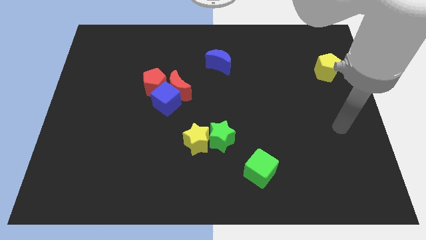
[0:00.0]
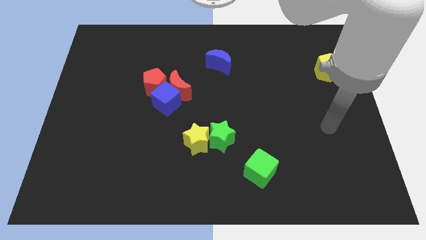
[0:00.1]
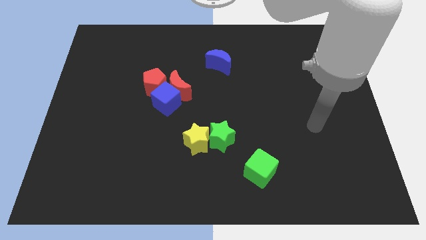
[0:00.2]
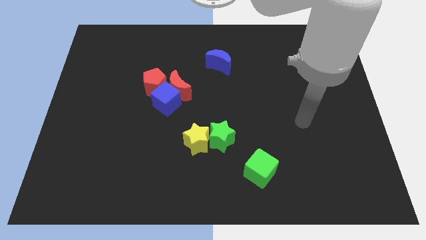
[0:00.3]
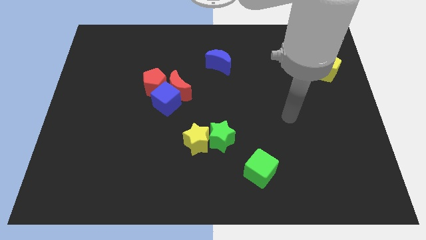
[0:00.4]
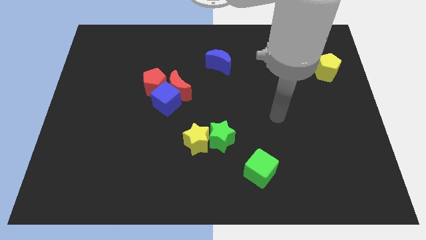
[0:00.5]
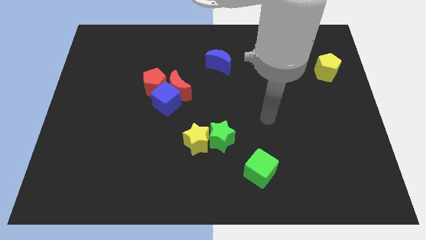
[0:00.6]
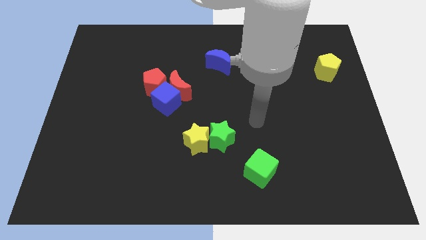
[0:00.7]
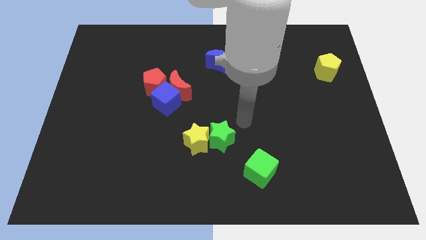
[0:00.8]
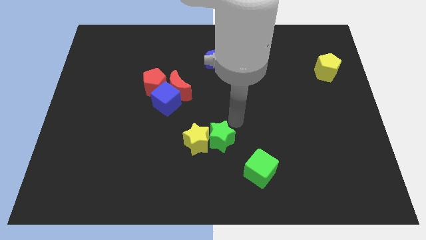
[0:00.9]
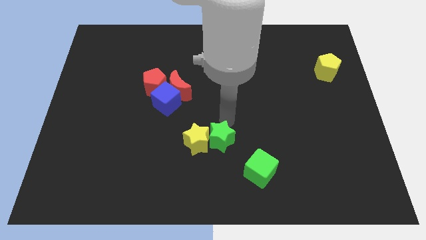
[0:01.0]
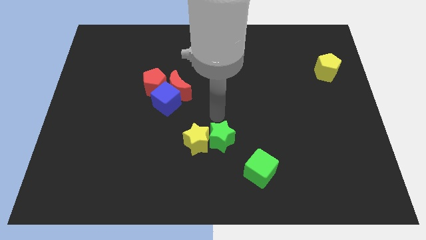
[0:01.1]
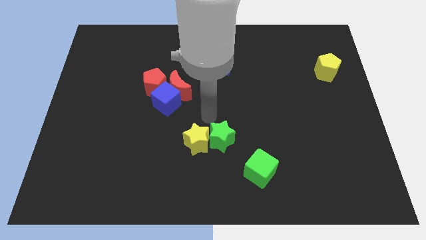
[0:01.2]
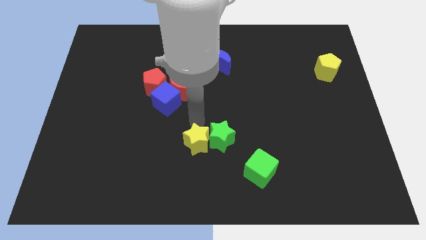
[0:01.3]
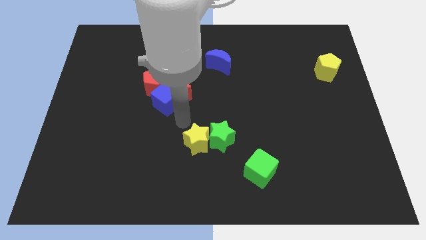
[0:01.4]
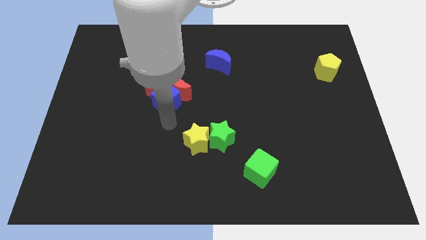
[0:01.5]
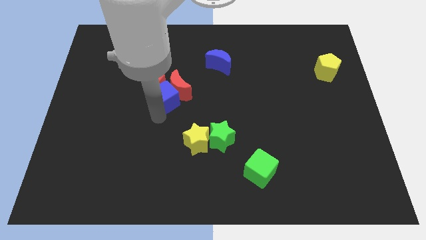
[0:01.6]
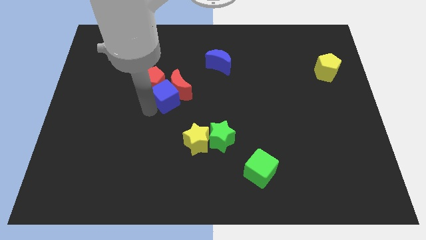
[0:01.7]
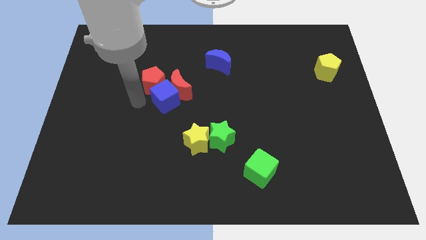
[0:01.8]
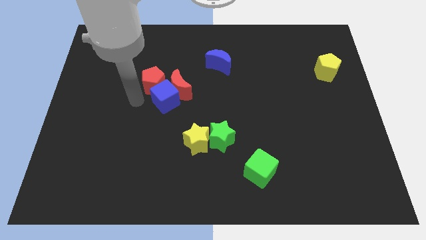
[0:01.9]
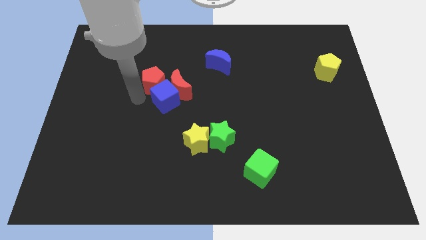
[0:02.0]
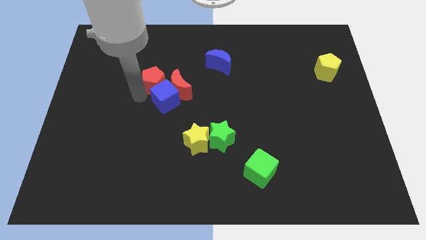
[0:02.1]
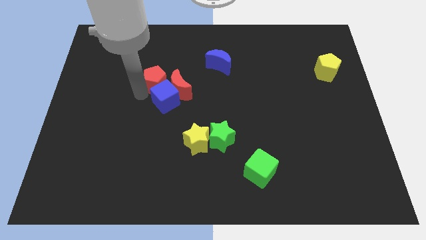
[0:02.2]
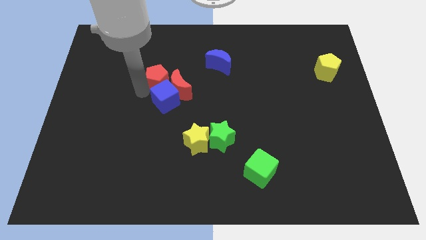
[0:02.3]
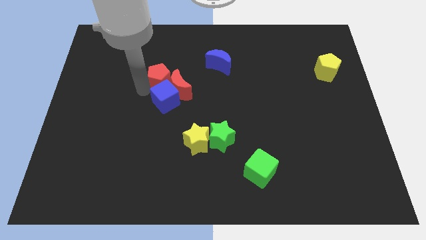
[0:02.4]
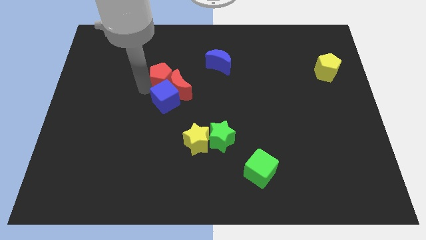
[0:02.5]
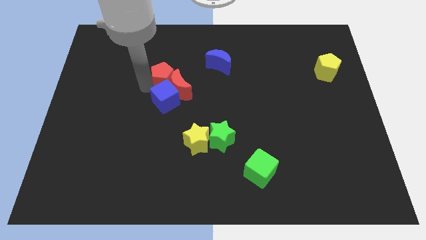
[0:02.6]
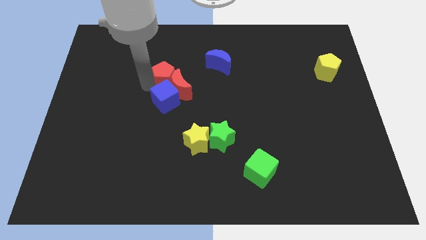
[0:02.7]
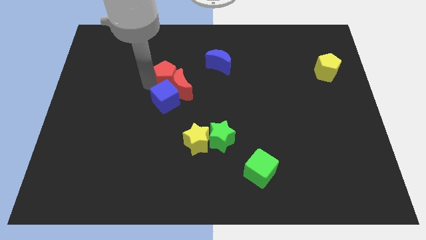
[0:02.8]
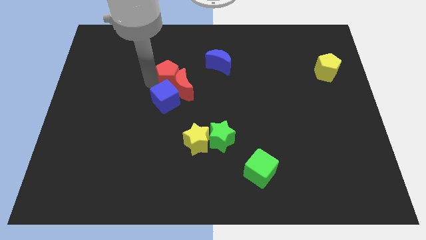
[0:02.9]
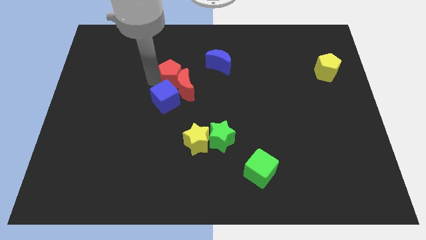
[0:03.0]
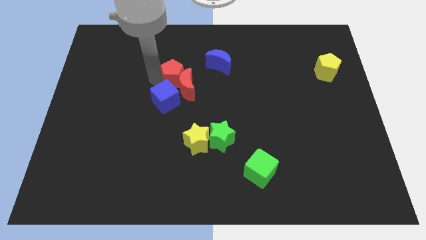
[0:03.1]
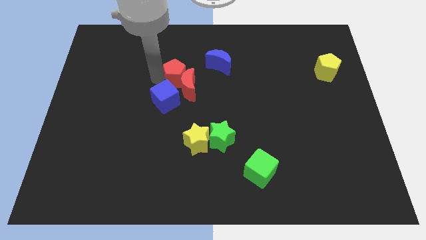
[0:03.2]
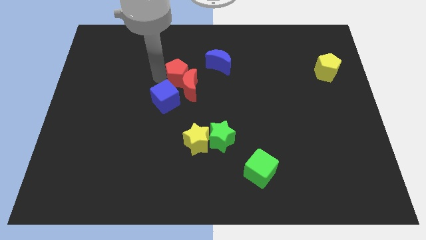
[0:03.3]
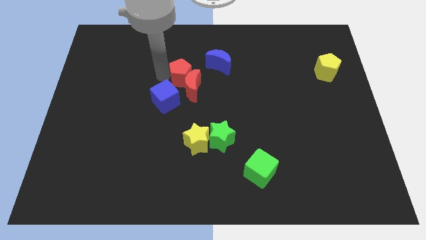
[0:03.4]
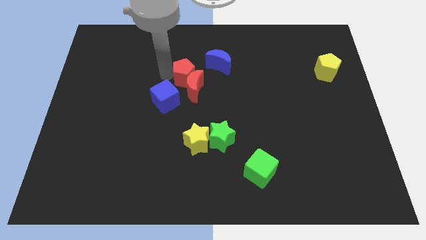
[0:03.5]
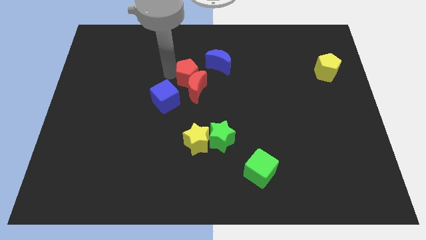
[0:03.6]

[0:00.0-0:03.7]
push the red pentagon slightly to the right

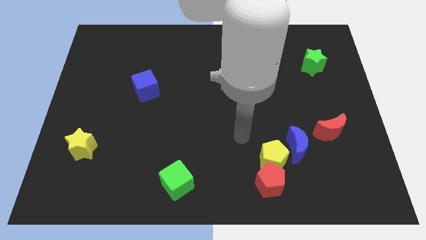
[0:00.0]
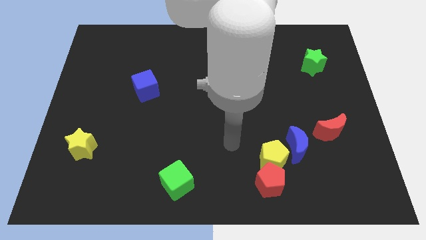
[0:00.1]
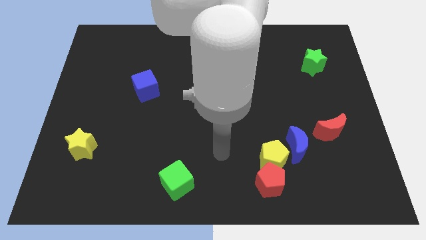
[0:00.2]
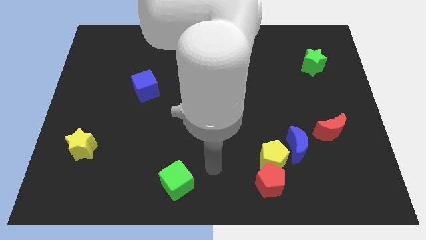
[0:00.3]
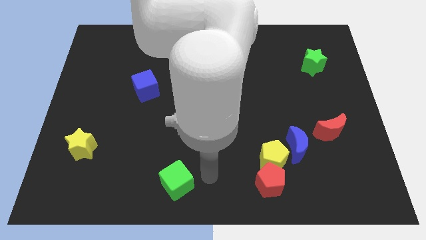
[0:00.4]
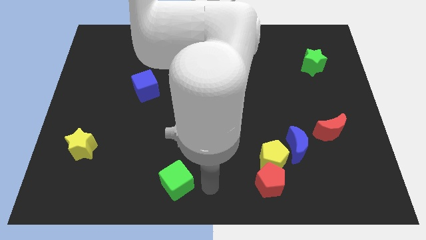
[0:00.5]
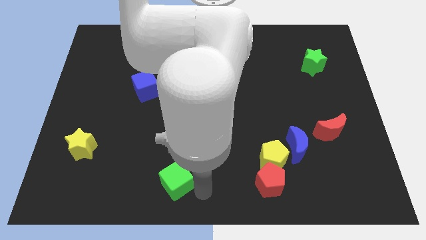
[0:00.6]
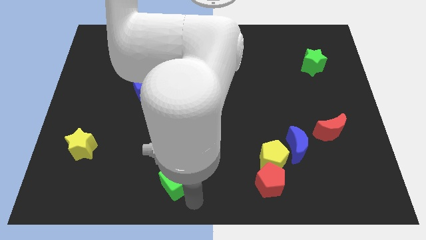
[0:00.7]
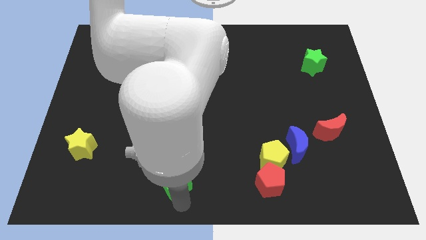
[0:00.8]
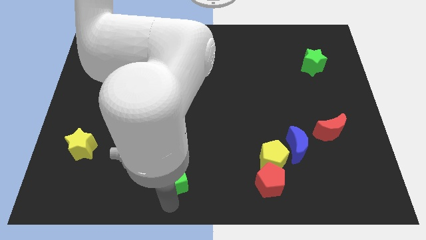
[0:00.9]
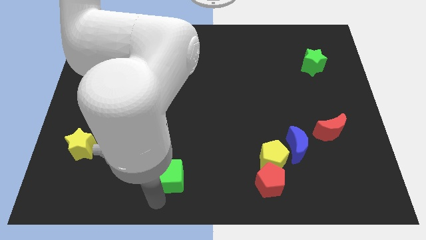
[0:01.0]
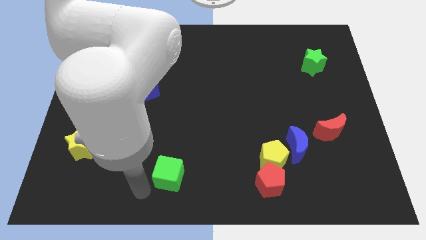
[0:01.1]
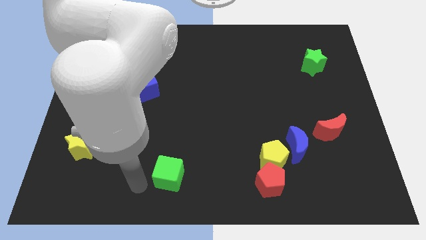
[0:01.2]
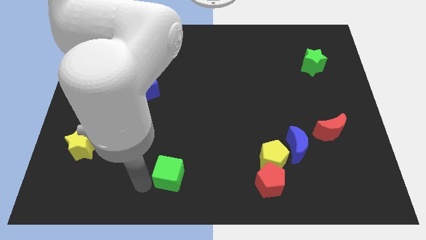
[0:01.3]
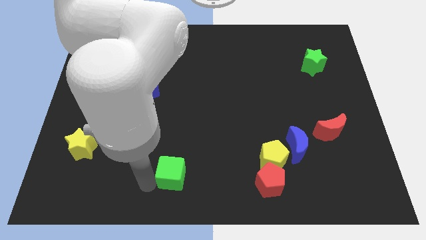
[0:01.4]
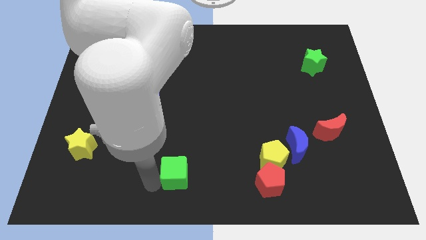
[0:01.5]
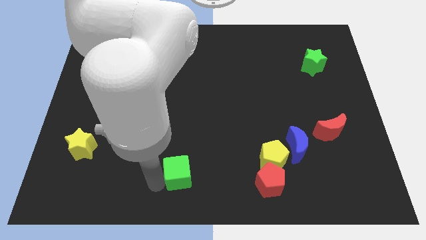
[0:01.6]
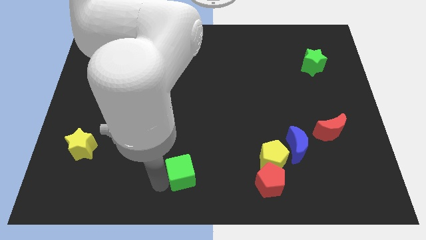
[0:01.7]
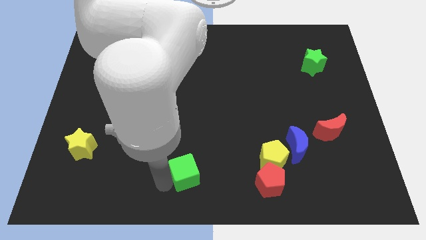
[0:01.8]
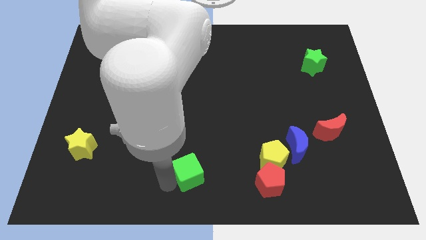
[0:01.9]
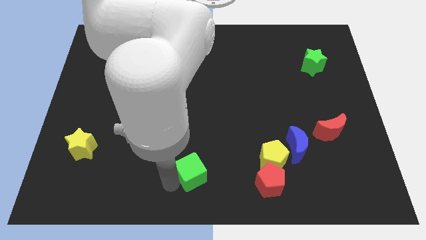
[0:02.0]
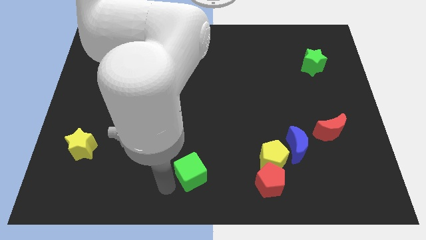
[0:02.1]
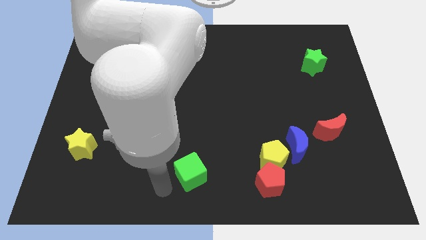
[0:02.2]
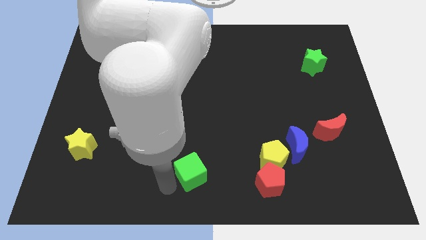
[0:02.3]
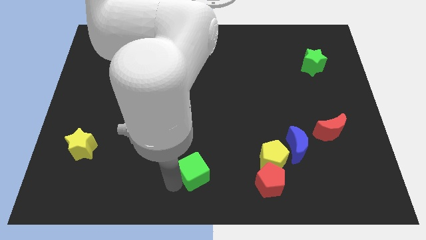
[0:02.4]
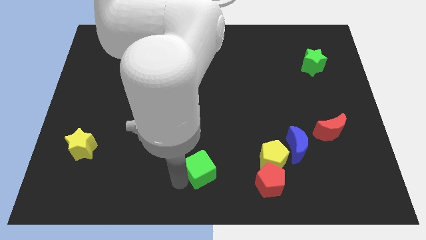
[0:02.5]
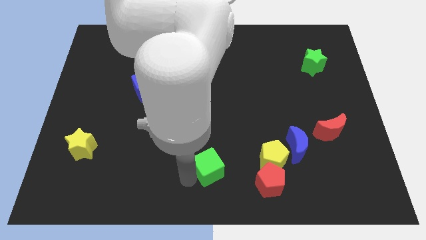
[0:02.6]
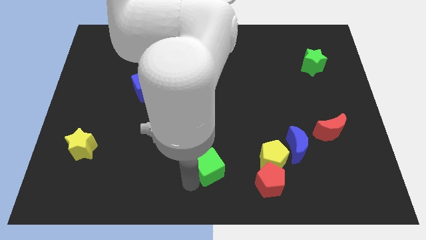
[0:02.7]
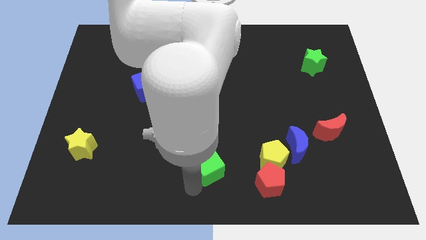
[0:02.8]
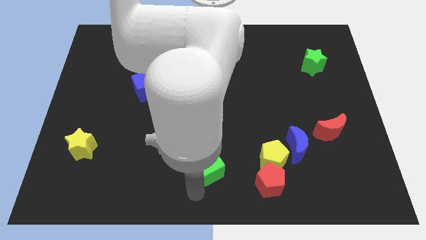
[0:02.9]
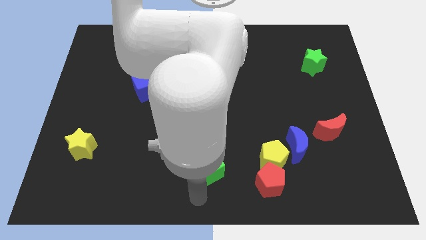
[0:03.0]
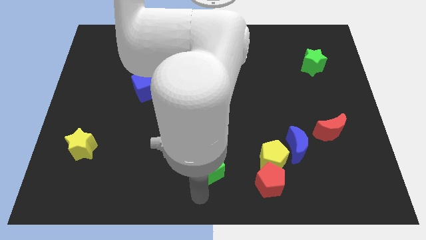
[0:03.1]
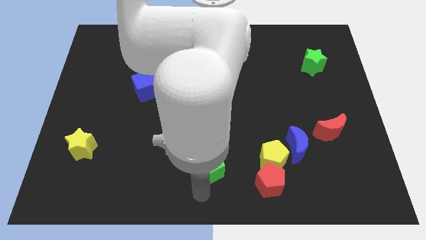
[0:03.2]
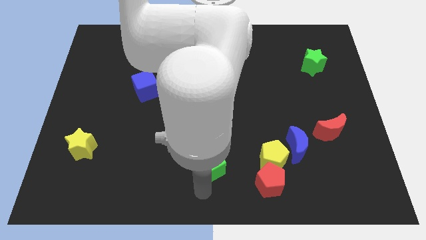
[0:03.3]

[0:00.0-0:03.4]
slightly slide the green cube up and then right

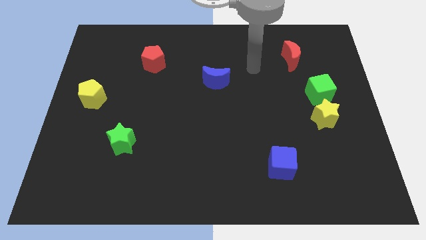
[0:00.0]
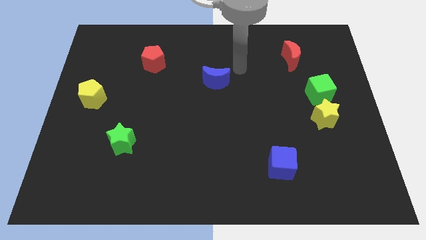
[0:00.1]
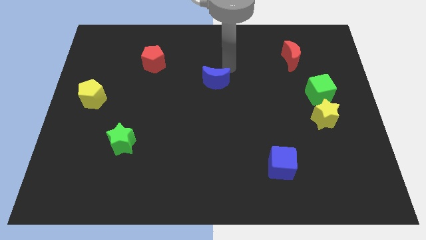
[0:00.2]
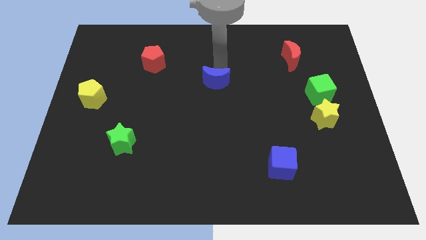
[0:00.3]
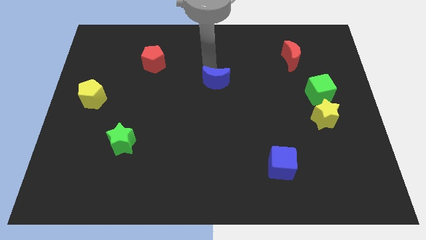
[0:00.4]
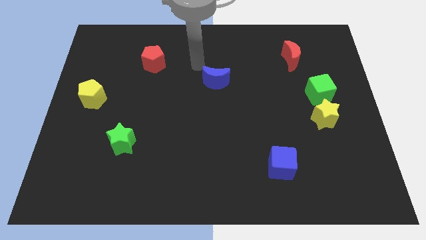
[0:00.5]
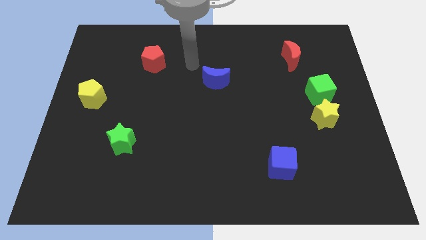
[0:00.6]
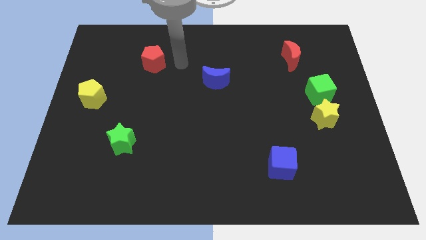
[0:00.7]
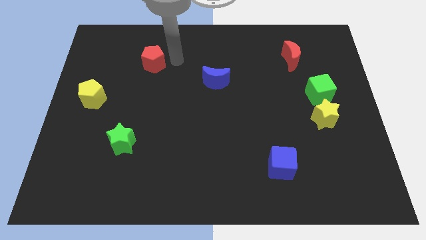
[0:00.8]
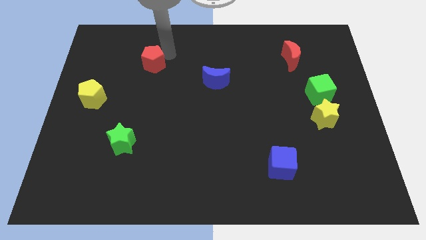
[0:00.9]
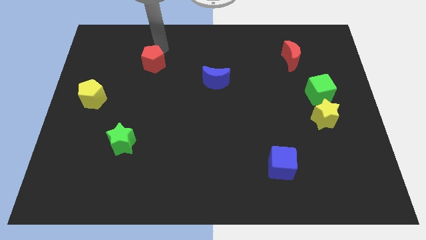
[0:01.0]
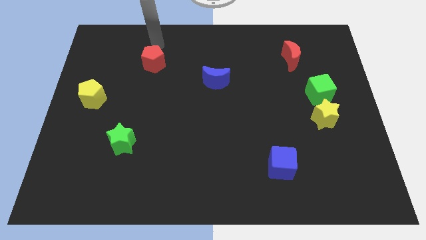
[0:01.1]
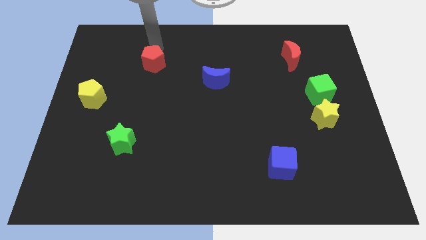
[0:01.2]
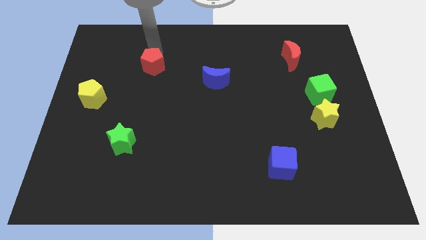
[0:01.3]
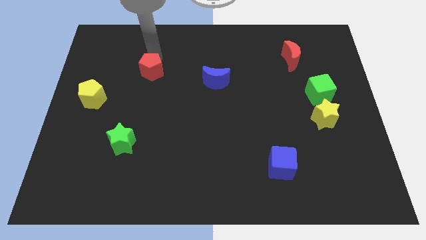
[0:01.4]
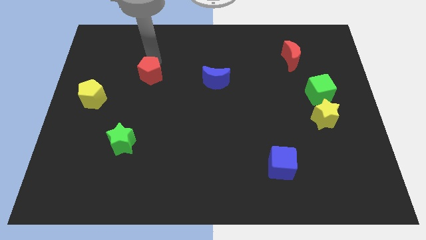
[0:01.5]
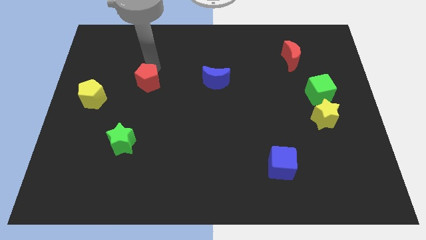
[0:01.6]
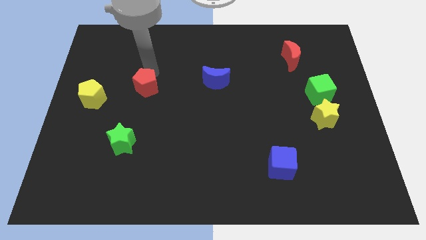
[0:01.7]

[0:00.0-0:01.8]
slide the red pentagon a little bit down
